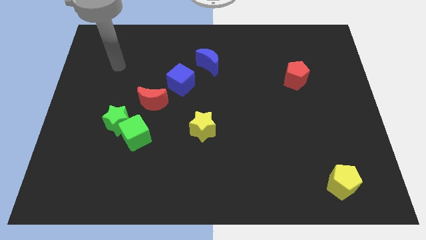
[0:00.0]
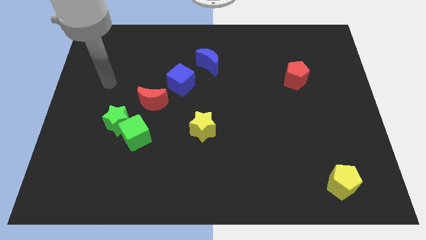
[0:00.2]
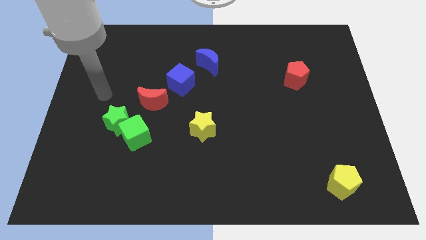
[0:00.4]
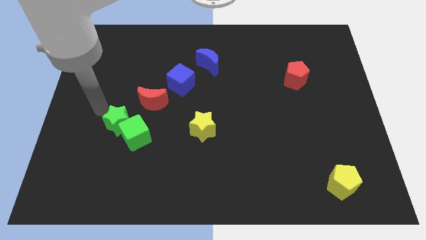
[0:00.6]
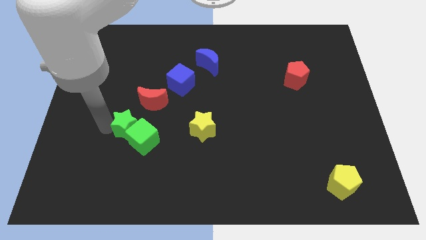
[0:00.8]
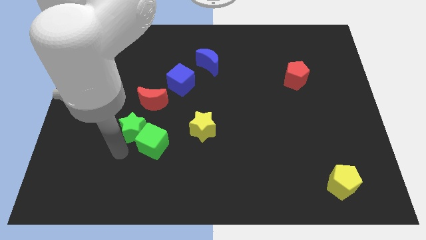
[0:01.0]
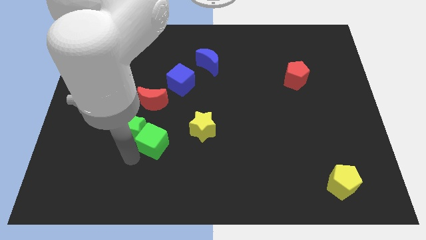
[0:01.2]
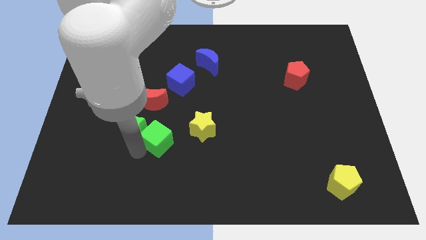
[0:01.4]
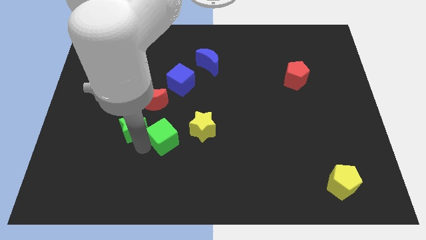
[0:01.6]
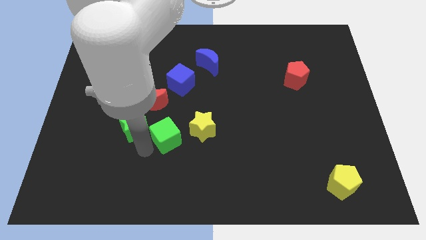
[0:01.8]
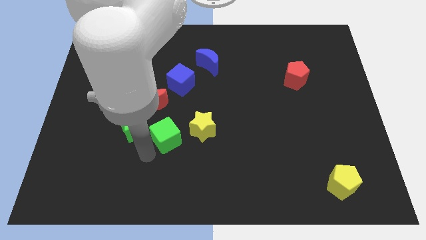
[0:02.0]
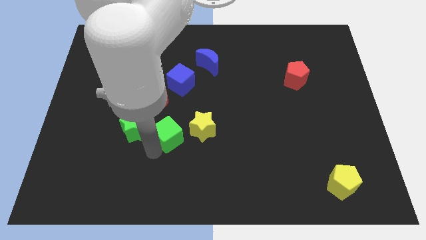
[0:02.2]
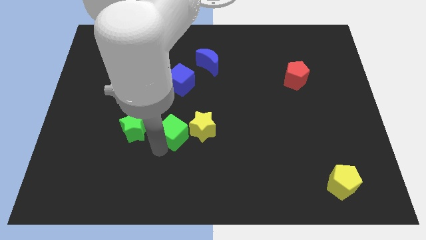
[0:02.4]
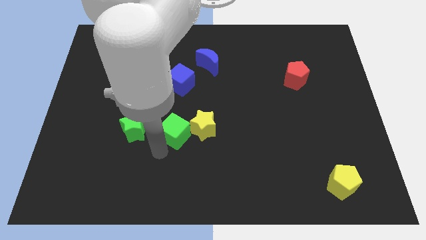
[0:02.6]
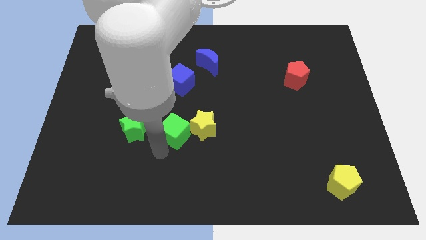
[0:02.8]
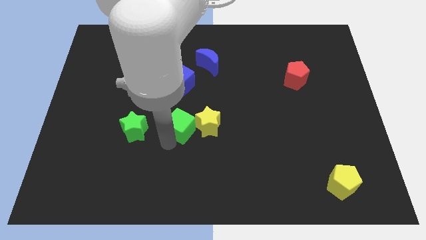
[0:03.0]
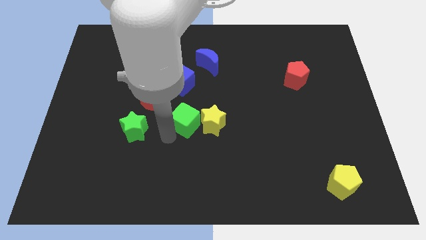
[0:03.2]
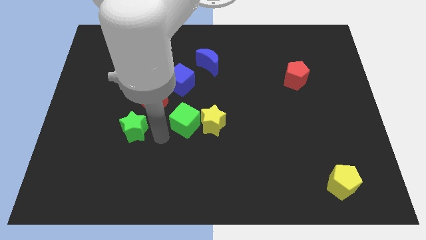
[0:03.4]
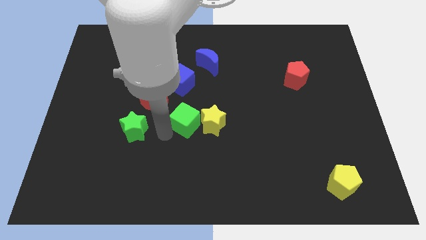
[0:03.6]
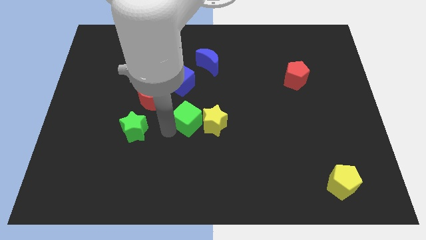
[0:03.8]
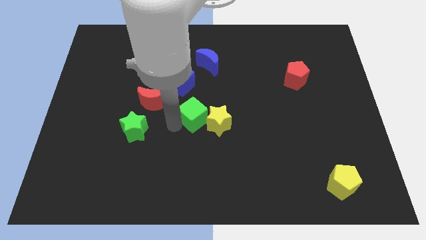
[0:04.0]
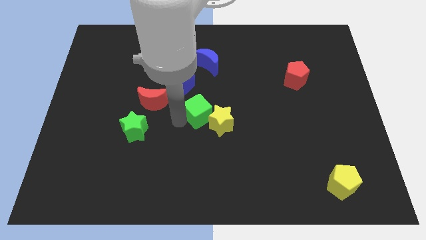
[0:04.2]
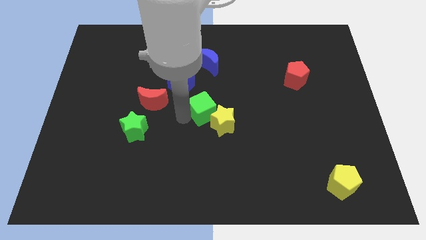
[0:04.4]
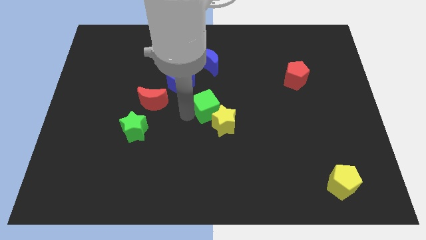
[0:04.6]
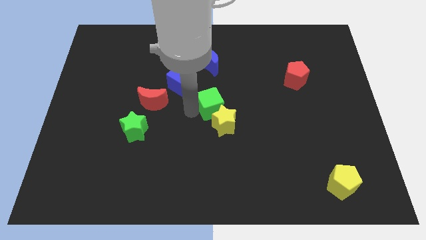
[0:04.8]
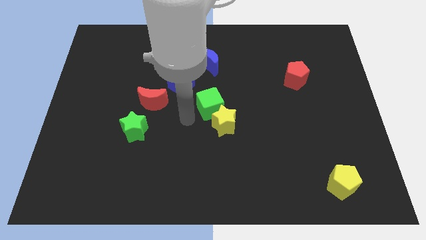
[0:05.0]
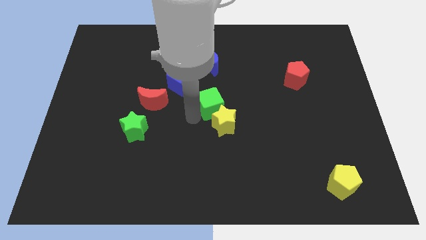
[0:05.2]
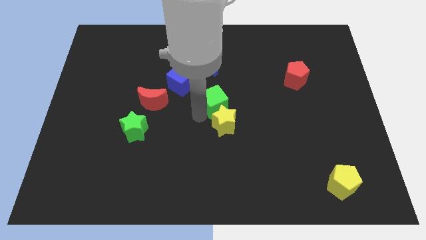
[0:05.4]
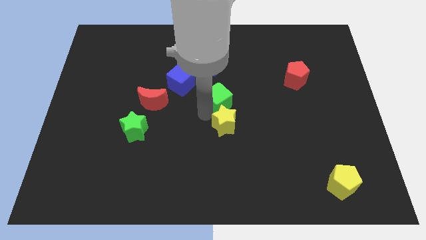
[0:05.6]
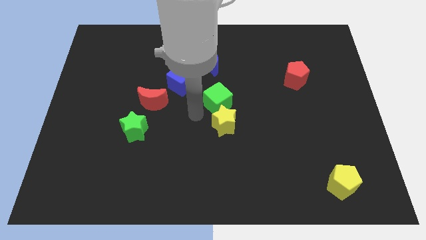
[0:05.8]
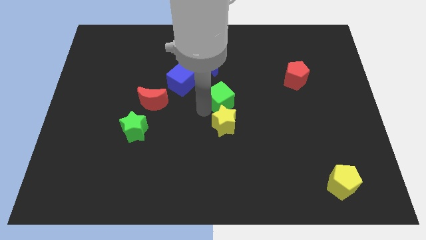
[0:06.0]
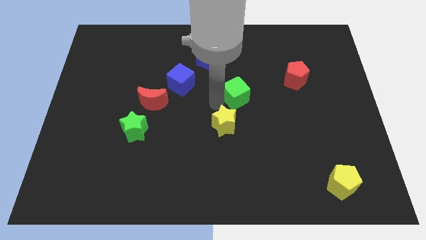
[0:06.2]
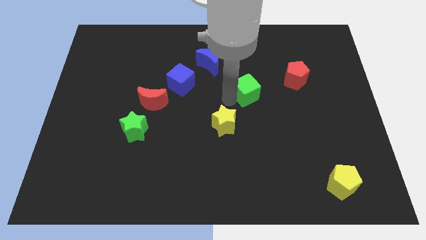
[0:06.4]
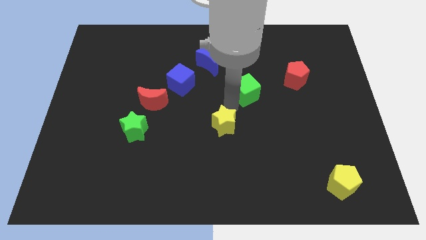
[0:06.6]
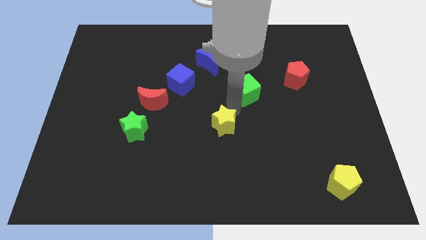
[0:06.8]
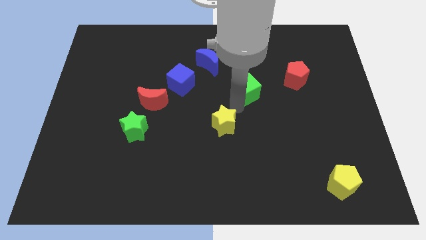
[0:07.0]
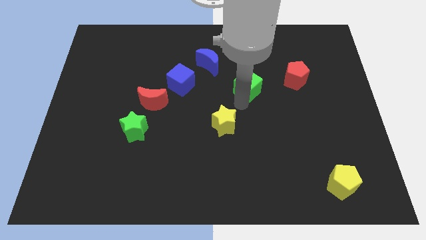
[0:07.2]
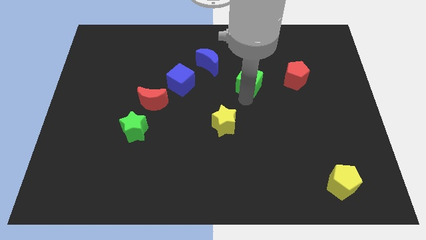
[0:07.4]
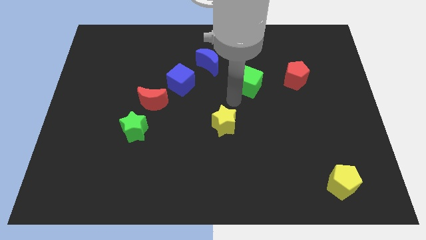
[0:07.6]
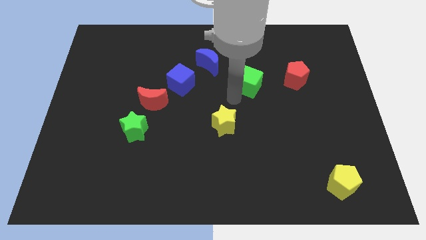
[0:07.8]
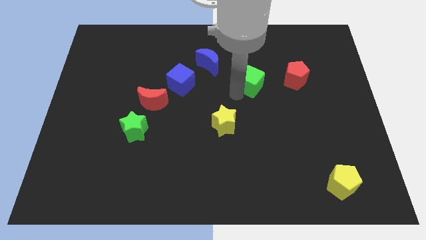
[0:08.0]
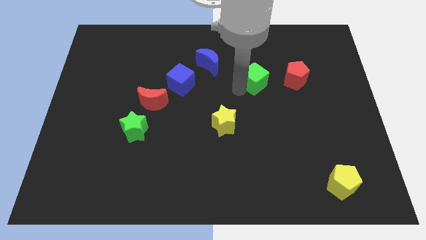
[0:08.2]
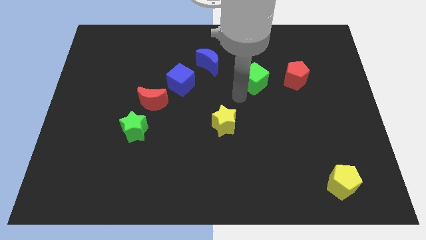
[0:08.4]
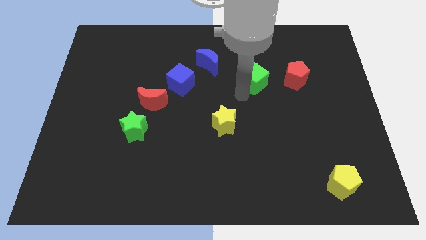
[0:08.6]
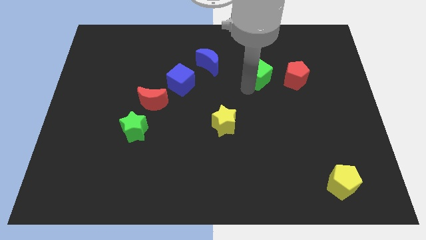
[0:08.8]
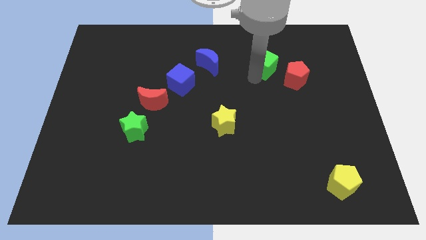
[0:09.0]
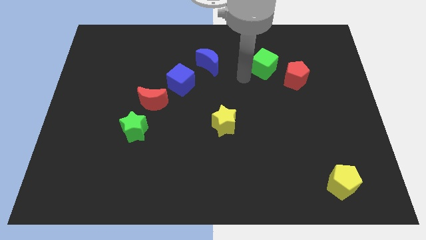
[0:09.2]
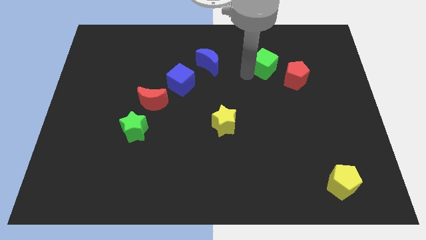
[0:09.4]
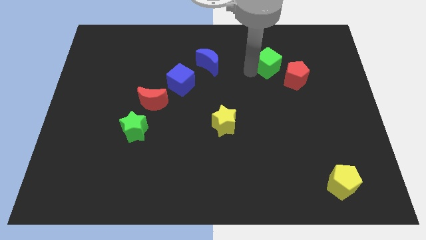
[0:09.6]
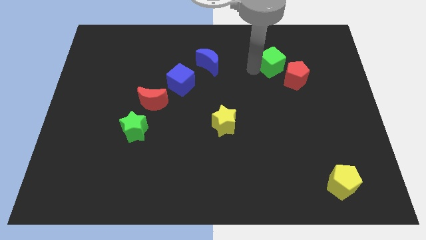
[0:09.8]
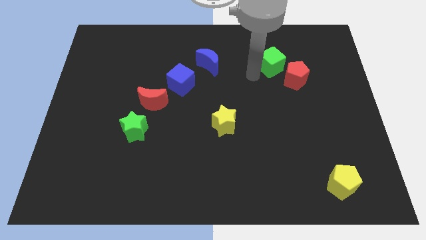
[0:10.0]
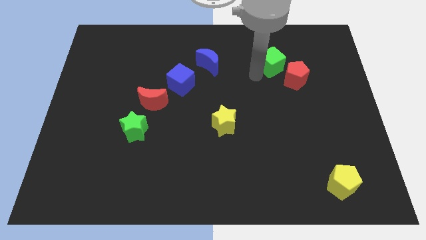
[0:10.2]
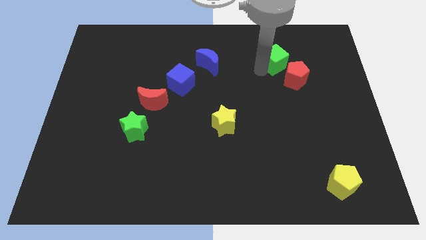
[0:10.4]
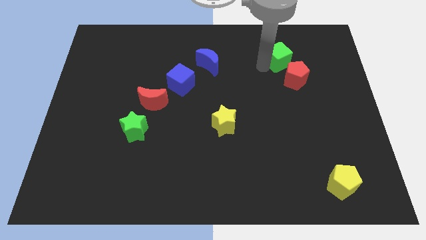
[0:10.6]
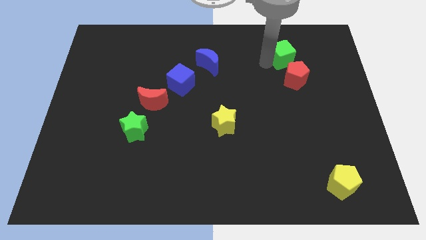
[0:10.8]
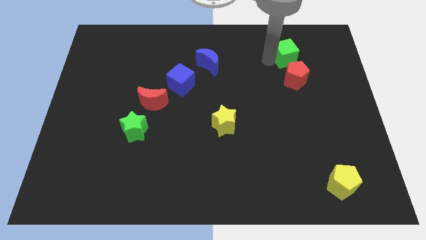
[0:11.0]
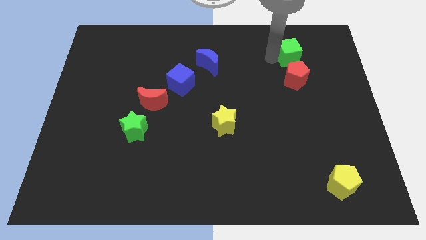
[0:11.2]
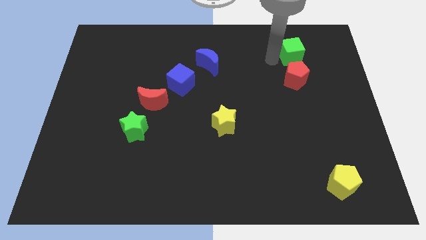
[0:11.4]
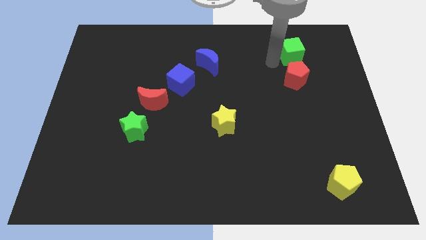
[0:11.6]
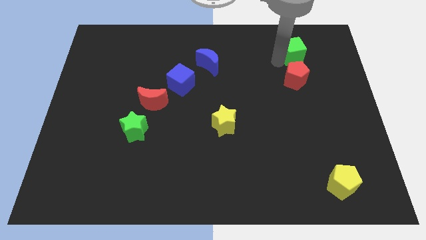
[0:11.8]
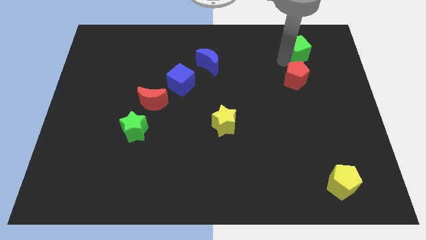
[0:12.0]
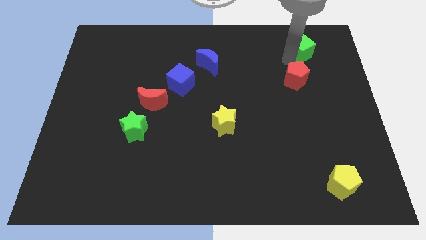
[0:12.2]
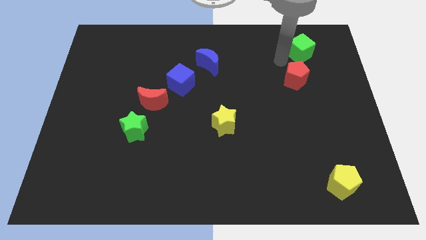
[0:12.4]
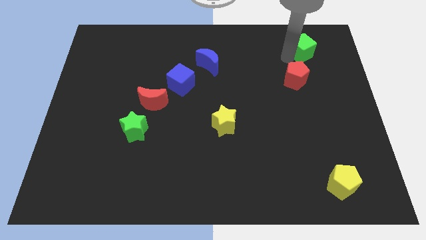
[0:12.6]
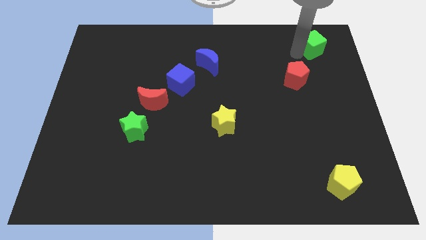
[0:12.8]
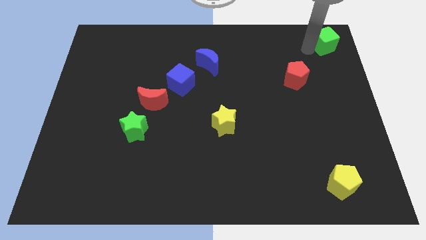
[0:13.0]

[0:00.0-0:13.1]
push the green cube to the top right
